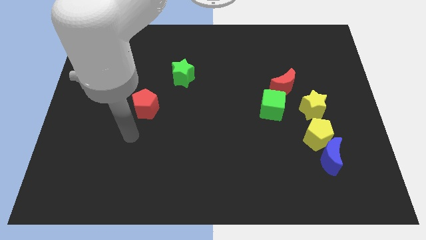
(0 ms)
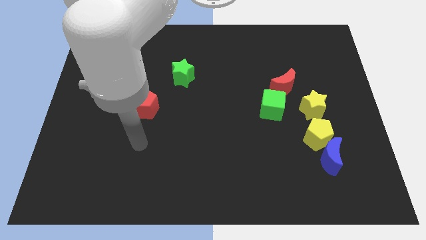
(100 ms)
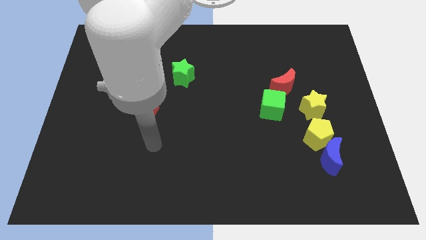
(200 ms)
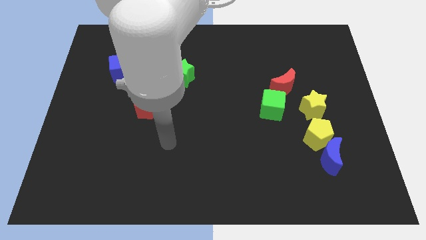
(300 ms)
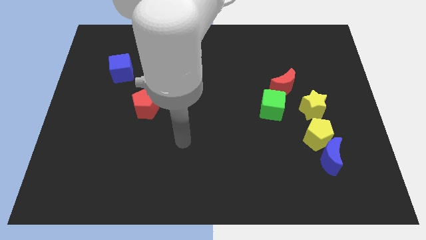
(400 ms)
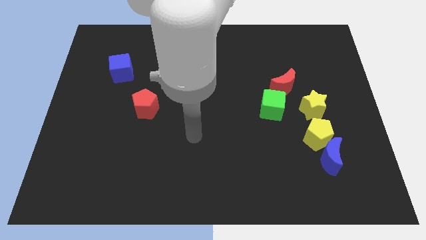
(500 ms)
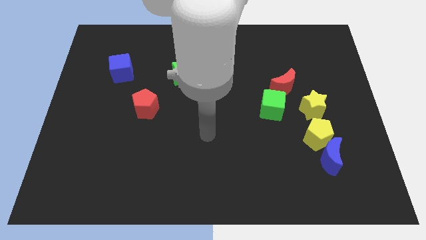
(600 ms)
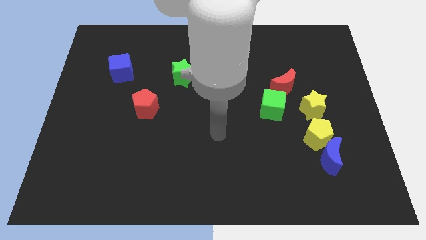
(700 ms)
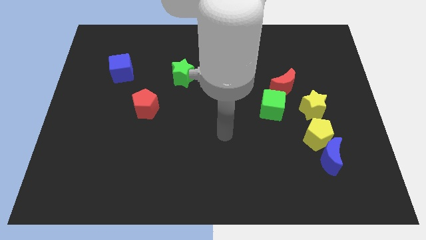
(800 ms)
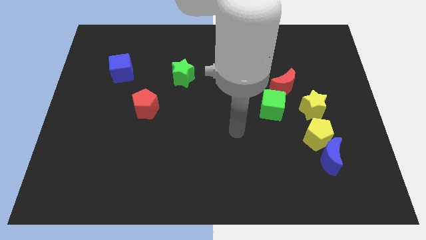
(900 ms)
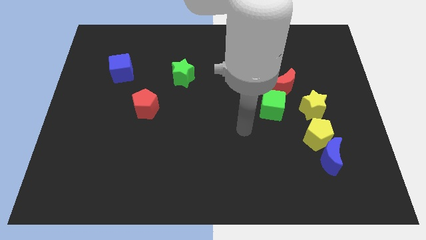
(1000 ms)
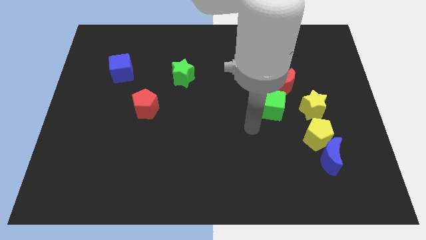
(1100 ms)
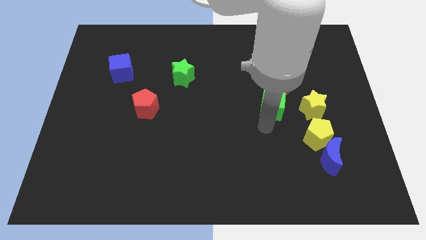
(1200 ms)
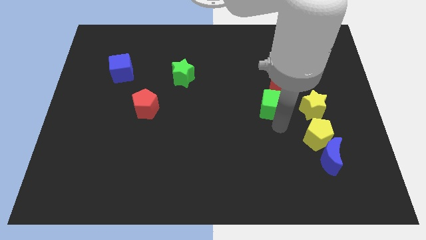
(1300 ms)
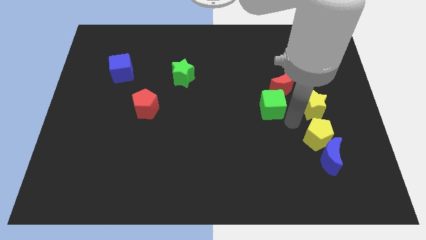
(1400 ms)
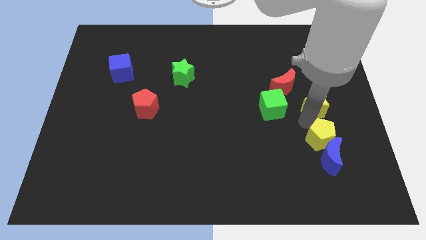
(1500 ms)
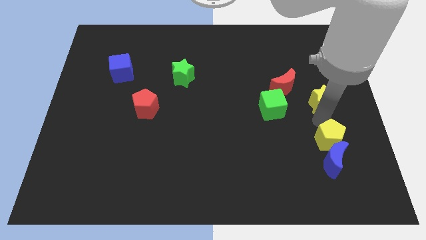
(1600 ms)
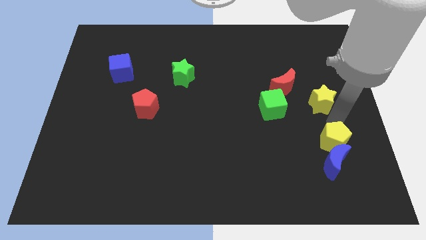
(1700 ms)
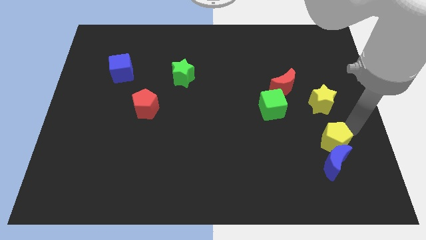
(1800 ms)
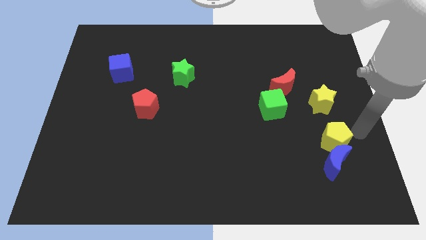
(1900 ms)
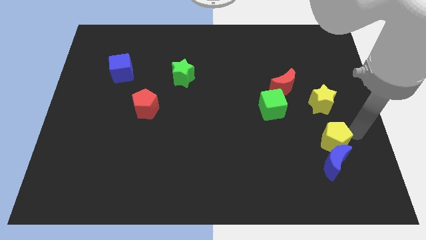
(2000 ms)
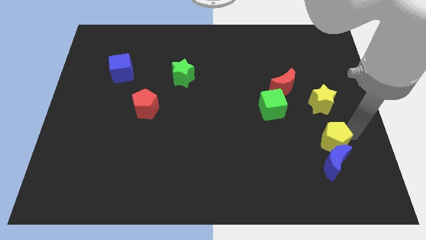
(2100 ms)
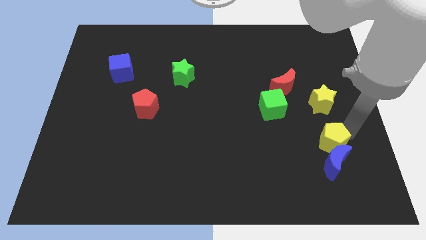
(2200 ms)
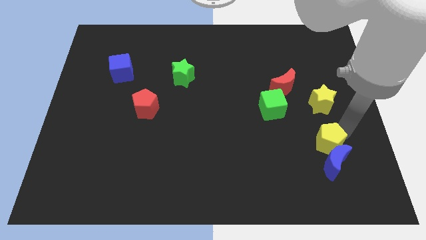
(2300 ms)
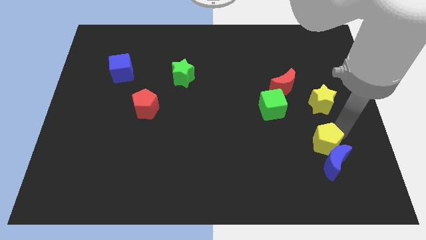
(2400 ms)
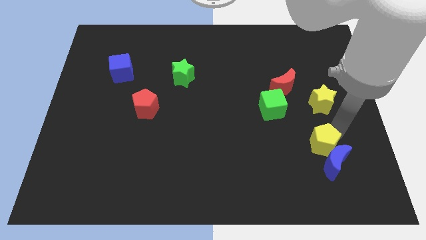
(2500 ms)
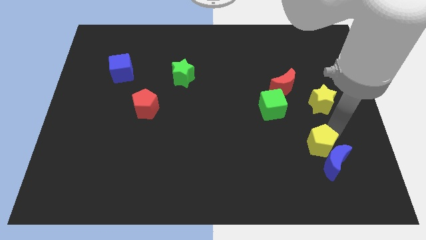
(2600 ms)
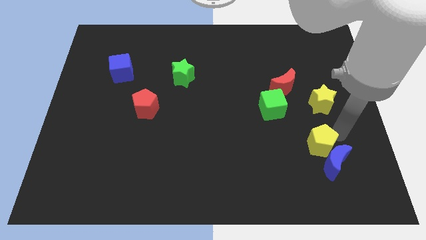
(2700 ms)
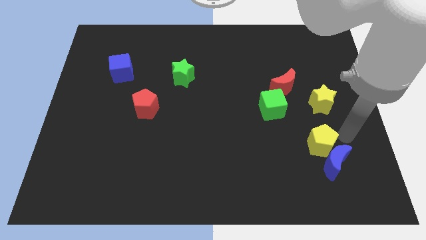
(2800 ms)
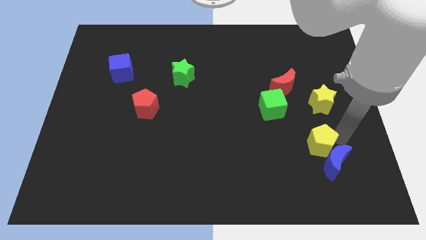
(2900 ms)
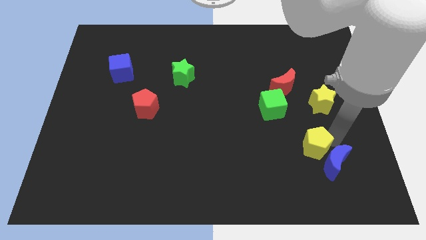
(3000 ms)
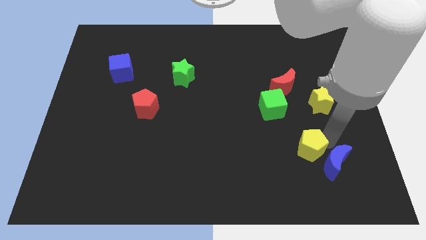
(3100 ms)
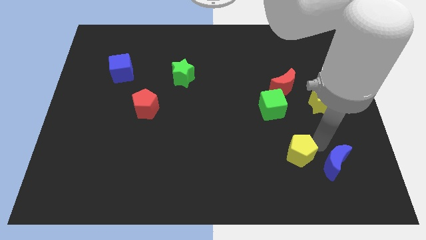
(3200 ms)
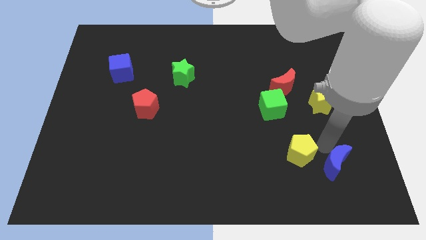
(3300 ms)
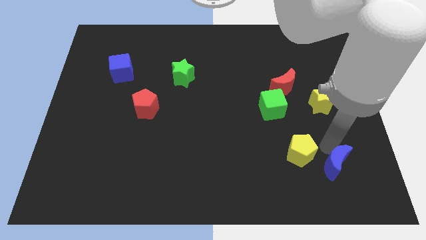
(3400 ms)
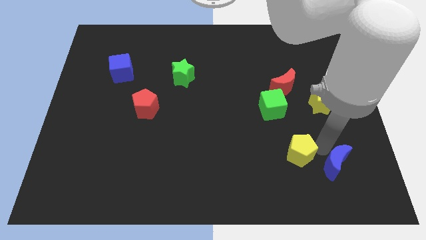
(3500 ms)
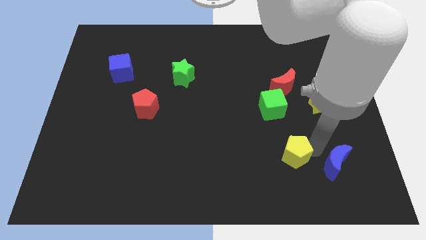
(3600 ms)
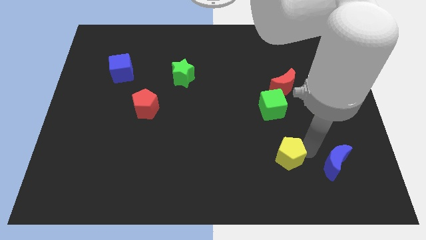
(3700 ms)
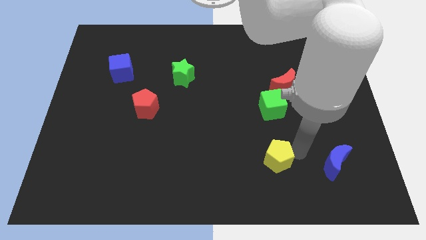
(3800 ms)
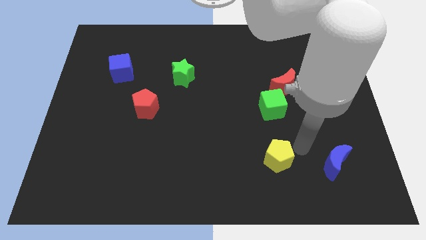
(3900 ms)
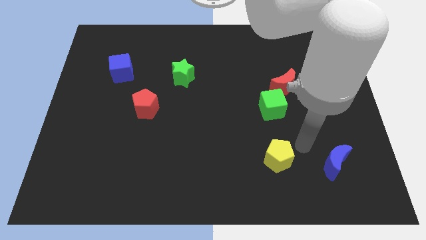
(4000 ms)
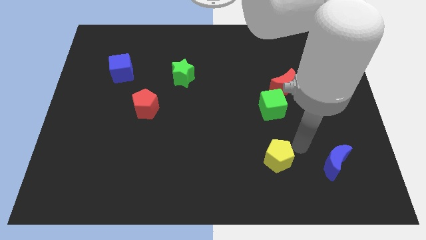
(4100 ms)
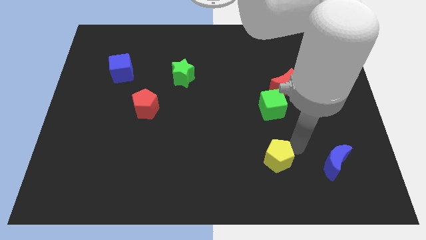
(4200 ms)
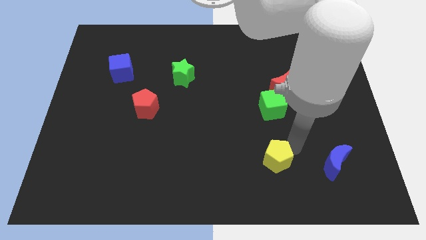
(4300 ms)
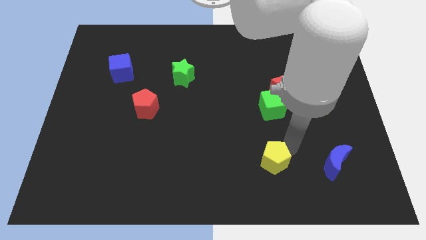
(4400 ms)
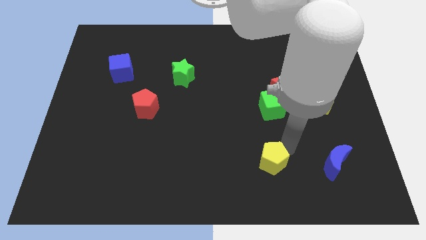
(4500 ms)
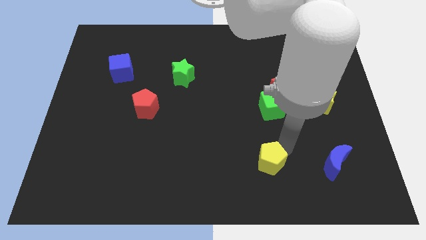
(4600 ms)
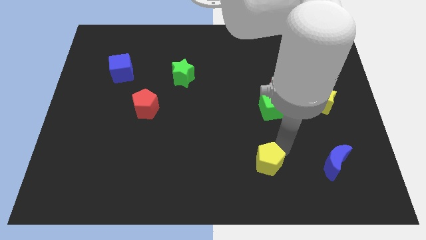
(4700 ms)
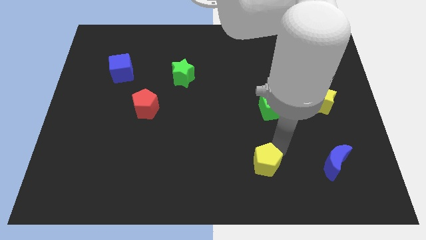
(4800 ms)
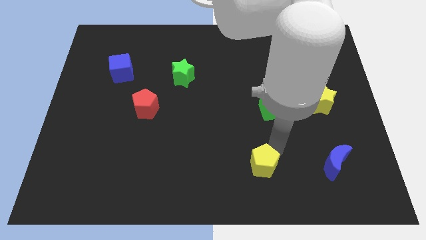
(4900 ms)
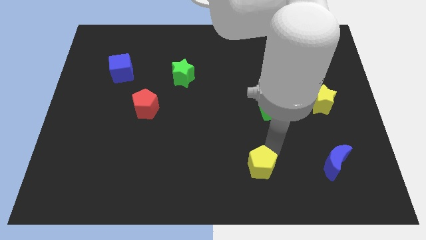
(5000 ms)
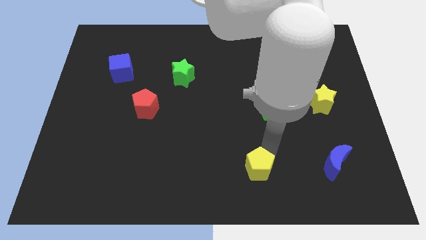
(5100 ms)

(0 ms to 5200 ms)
slide the yellow pentagon to the bottom

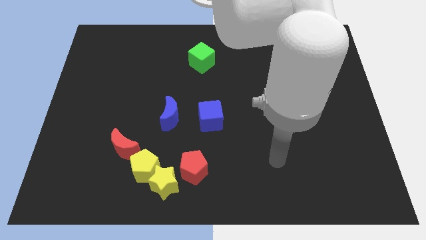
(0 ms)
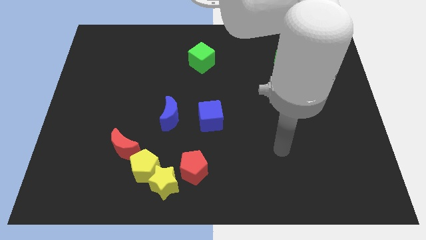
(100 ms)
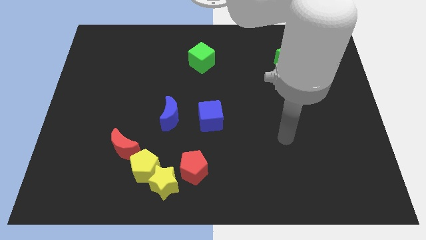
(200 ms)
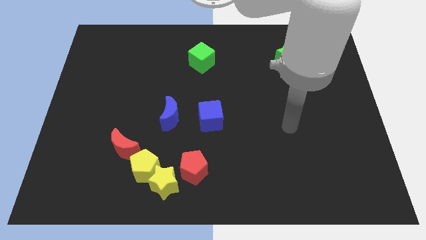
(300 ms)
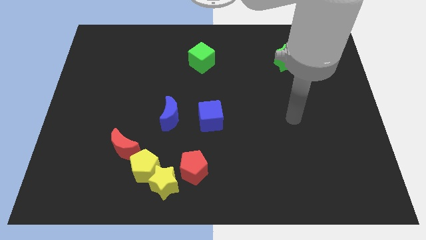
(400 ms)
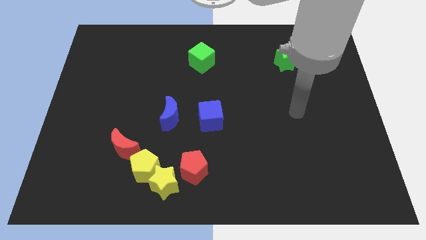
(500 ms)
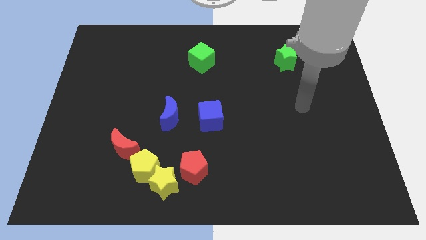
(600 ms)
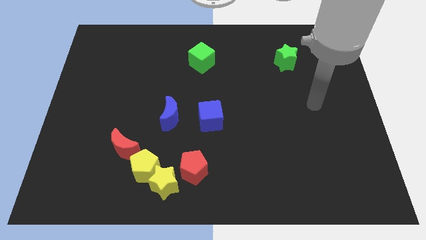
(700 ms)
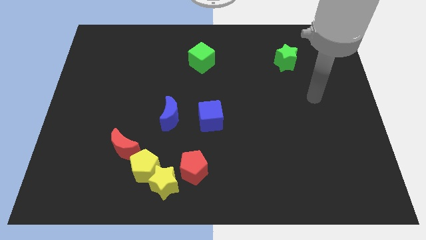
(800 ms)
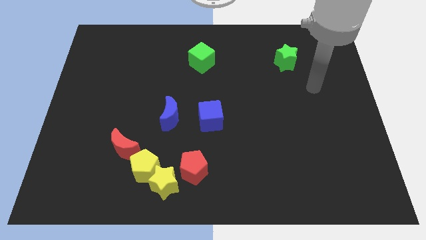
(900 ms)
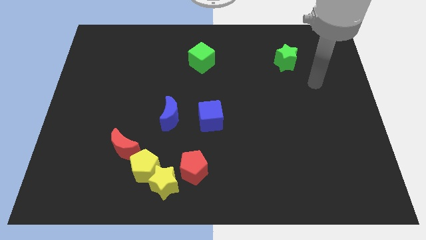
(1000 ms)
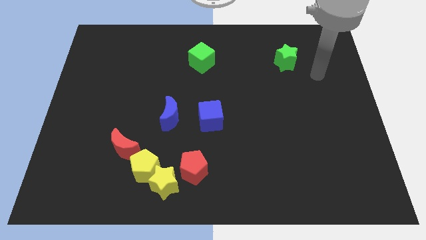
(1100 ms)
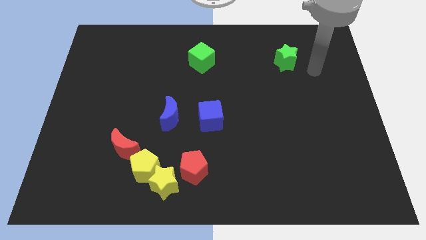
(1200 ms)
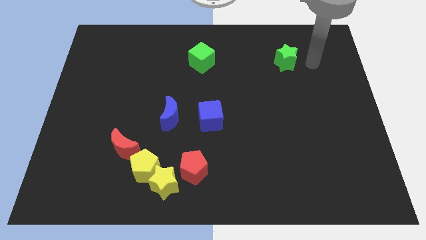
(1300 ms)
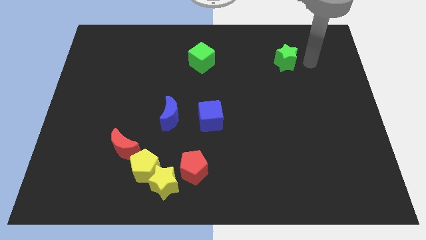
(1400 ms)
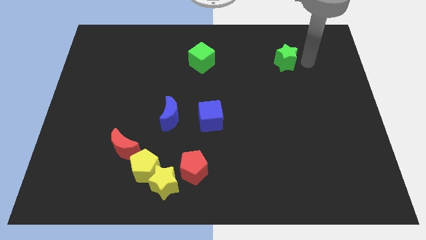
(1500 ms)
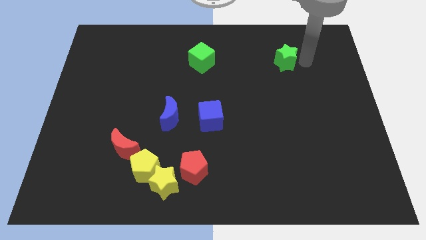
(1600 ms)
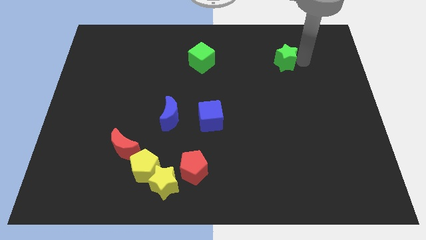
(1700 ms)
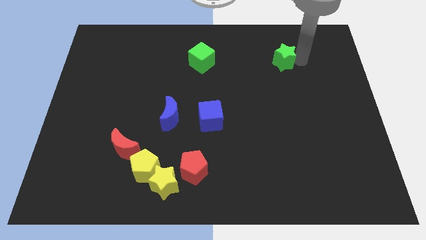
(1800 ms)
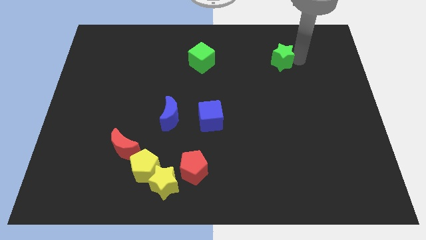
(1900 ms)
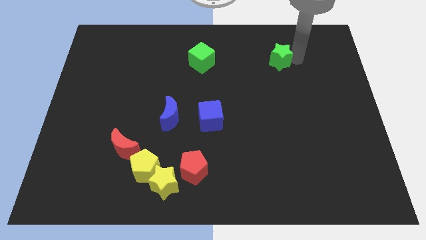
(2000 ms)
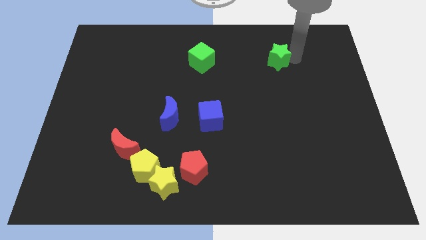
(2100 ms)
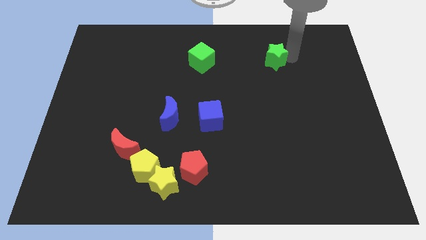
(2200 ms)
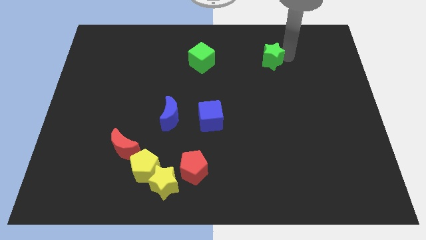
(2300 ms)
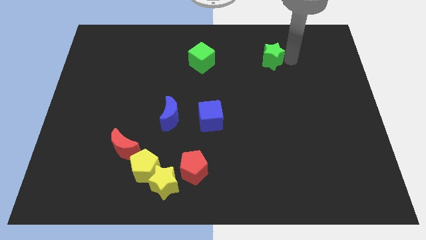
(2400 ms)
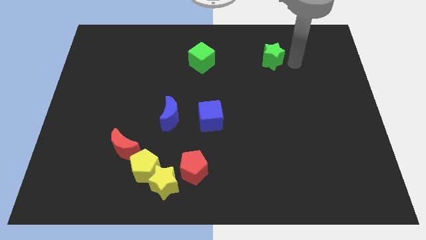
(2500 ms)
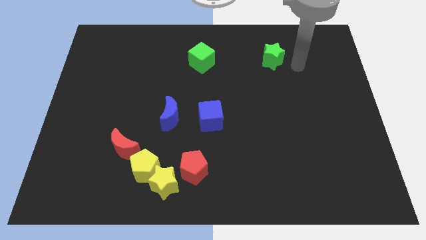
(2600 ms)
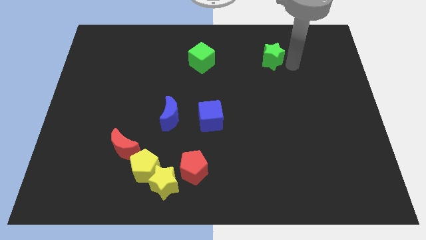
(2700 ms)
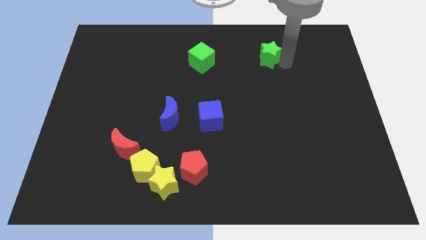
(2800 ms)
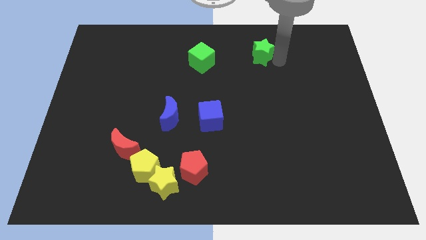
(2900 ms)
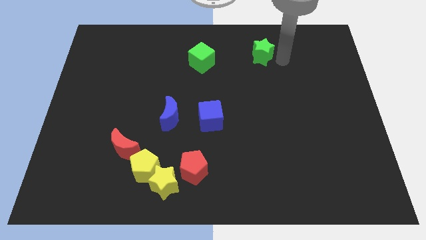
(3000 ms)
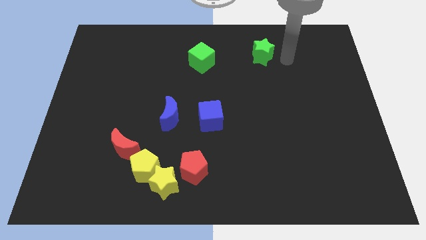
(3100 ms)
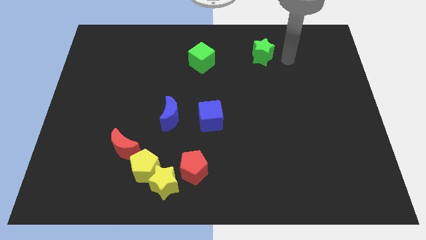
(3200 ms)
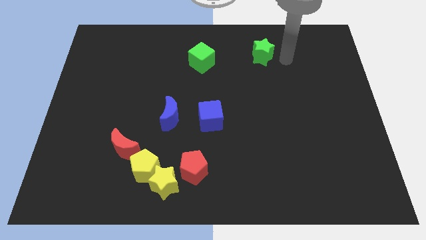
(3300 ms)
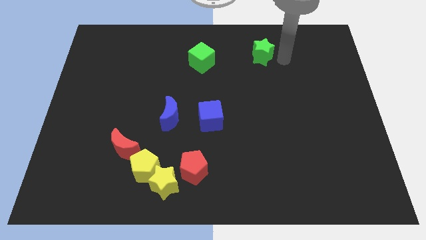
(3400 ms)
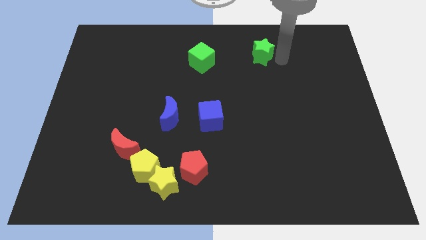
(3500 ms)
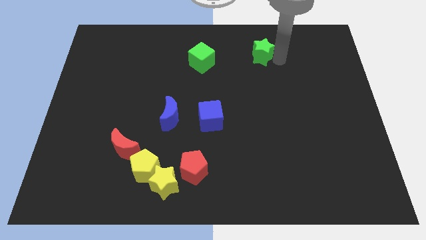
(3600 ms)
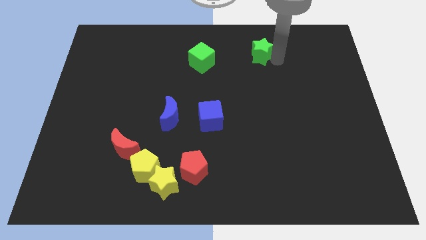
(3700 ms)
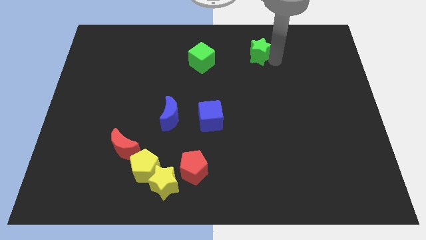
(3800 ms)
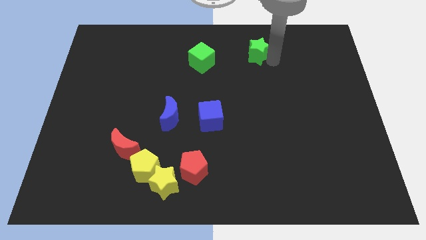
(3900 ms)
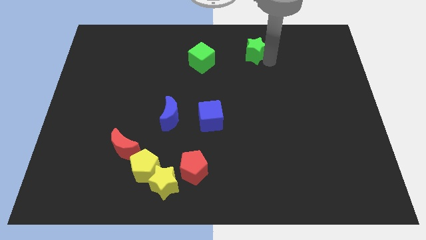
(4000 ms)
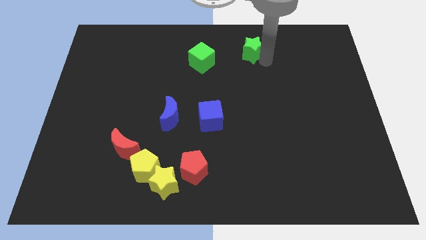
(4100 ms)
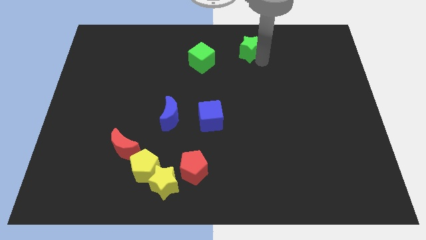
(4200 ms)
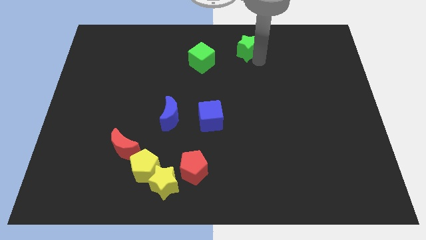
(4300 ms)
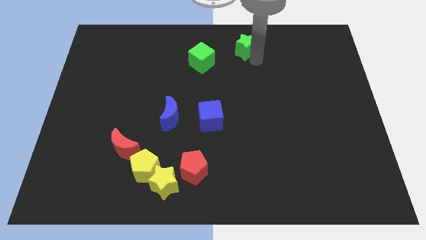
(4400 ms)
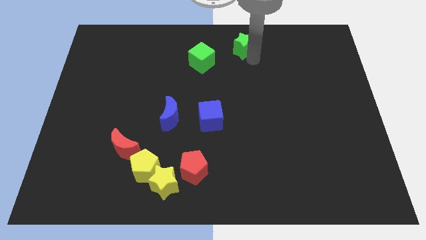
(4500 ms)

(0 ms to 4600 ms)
put the green star to the top side
